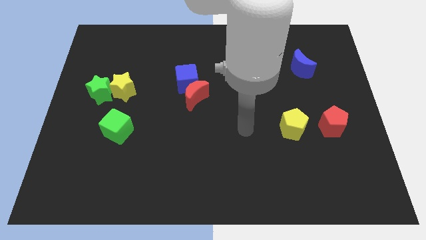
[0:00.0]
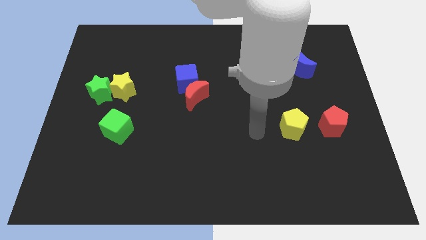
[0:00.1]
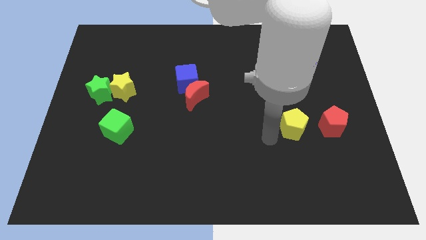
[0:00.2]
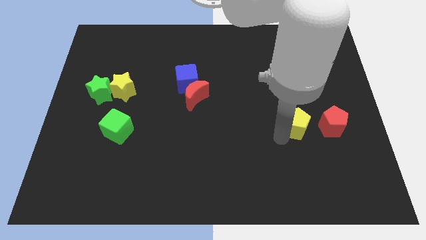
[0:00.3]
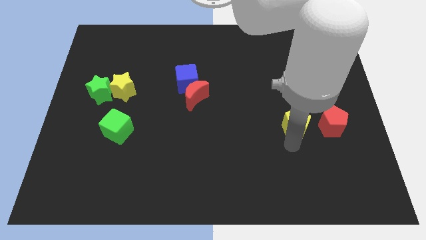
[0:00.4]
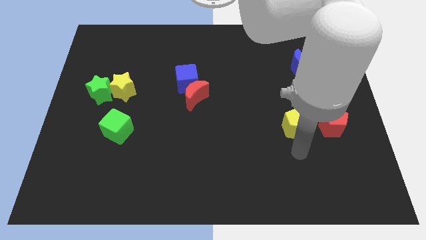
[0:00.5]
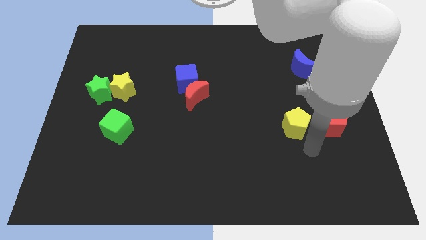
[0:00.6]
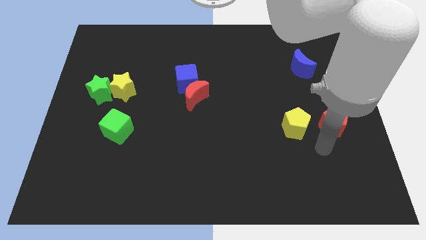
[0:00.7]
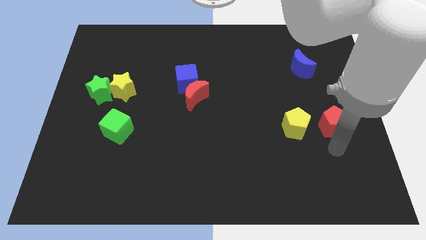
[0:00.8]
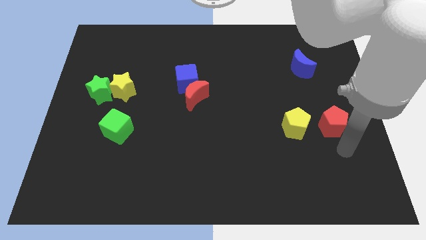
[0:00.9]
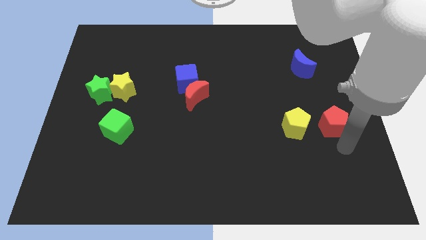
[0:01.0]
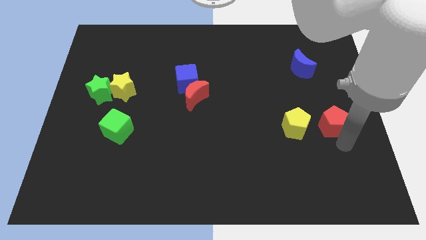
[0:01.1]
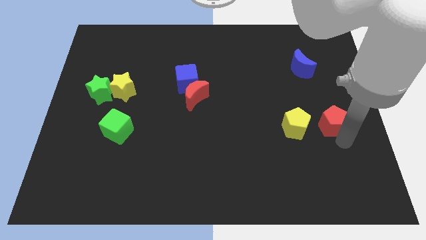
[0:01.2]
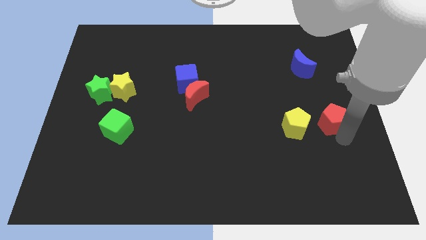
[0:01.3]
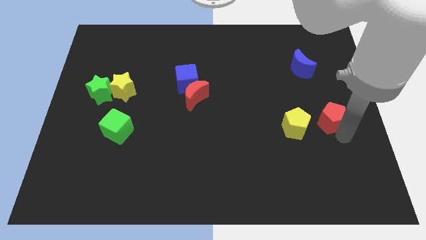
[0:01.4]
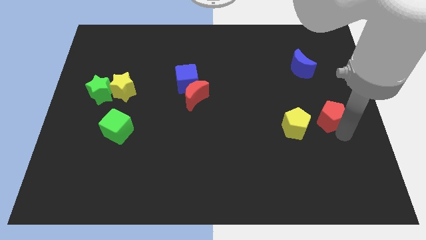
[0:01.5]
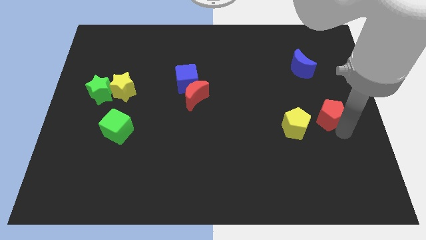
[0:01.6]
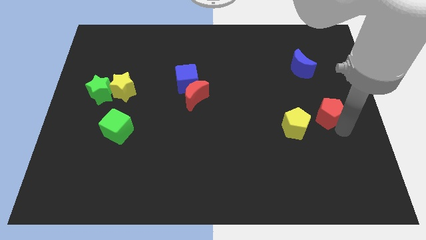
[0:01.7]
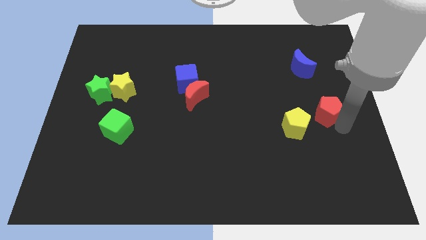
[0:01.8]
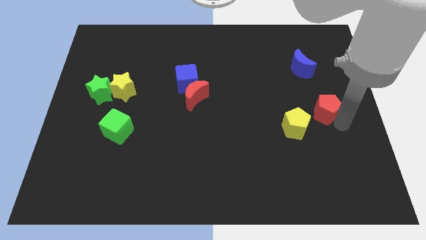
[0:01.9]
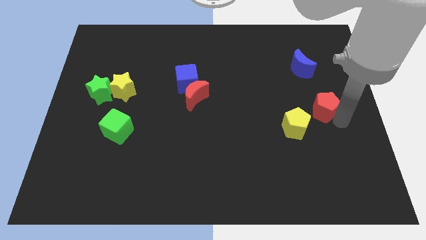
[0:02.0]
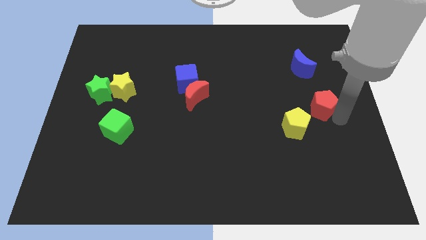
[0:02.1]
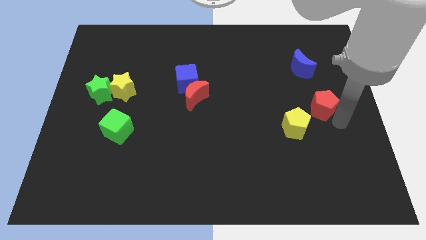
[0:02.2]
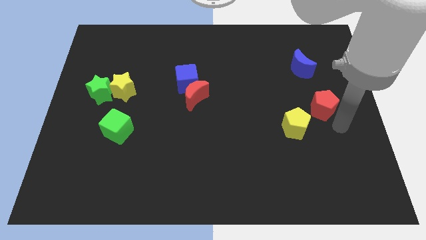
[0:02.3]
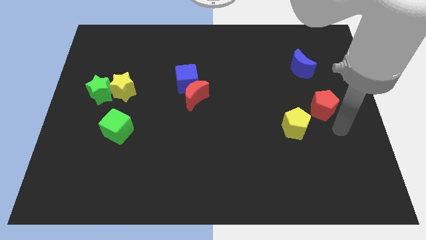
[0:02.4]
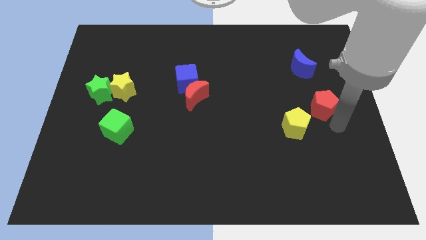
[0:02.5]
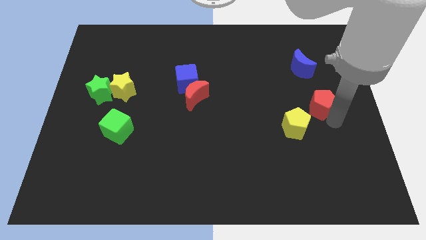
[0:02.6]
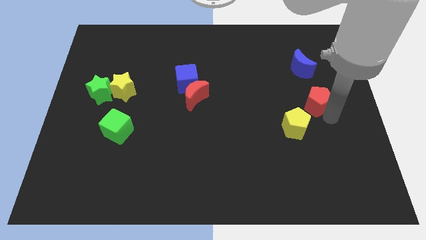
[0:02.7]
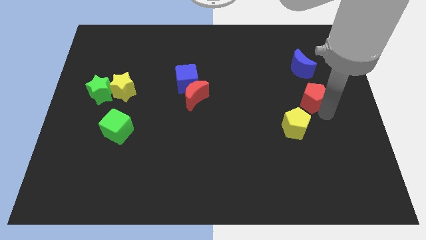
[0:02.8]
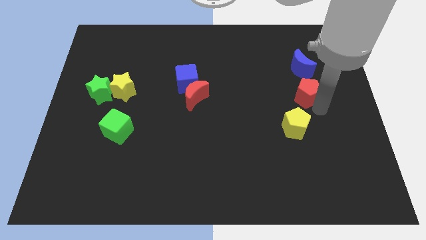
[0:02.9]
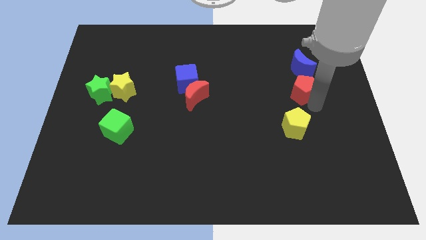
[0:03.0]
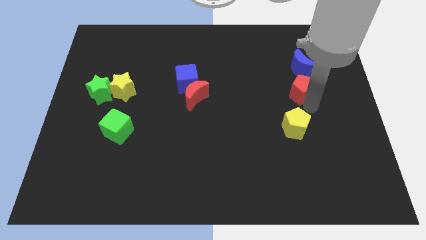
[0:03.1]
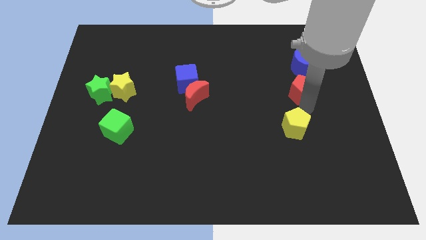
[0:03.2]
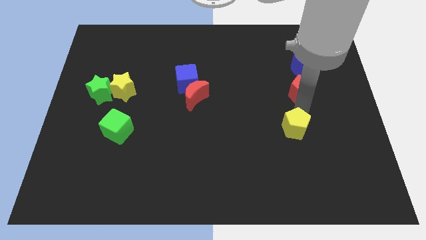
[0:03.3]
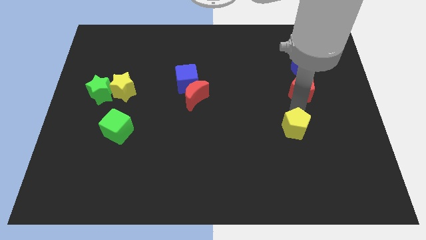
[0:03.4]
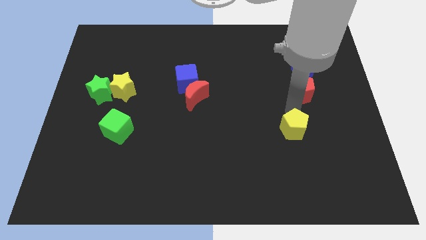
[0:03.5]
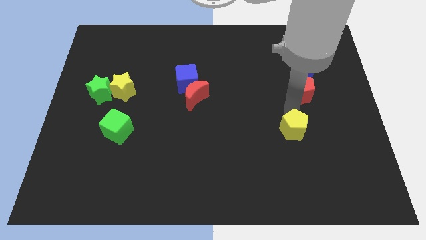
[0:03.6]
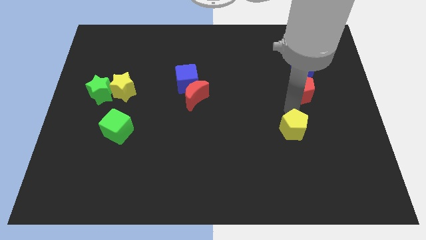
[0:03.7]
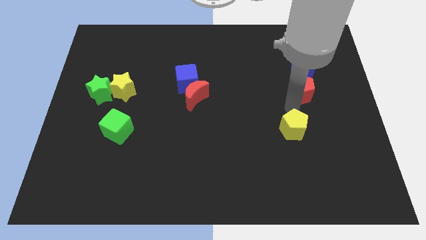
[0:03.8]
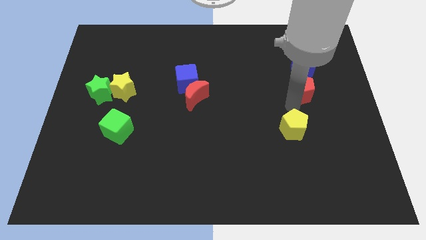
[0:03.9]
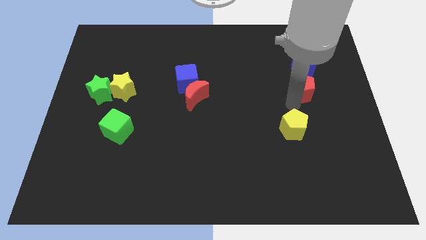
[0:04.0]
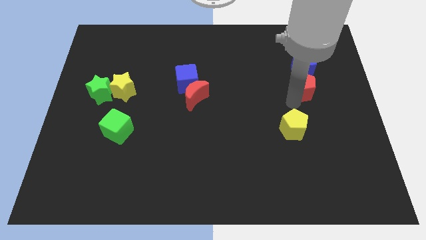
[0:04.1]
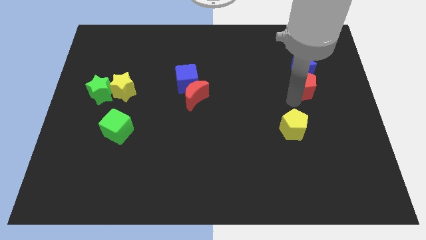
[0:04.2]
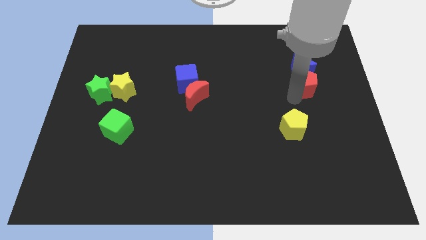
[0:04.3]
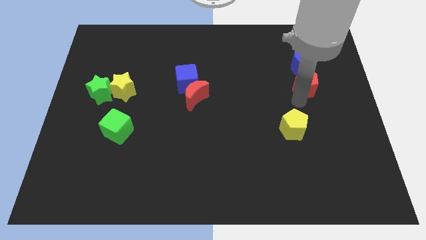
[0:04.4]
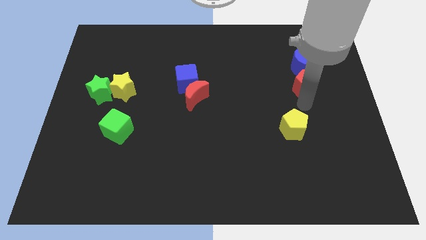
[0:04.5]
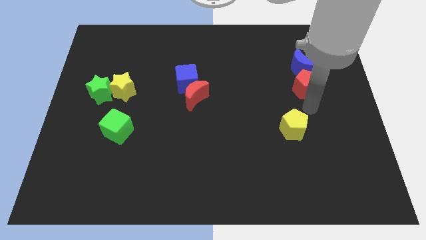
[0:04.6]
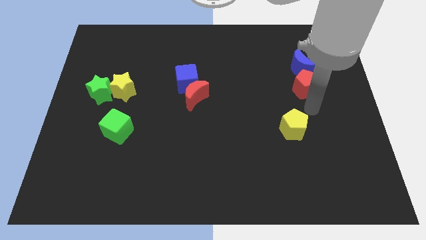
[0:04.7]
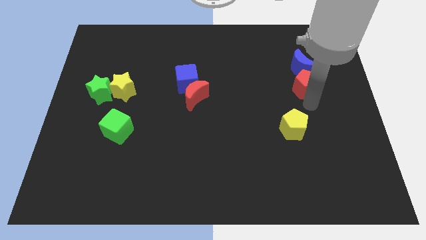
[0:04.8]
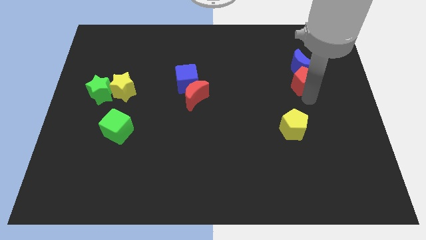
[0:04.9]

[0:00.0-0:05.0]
push the red pentagon next to the blue moon
